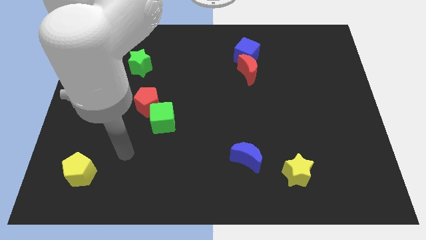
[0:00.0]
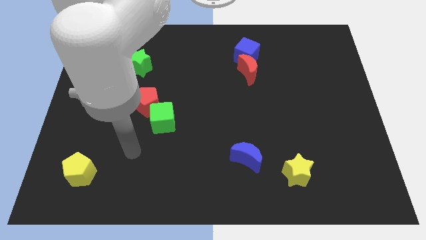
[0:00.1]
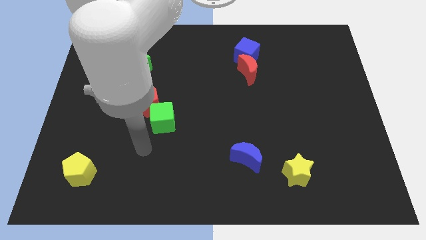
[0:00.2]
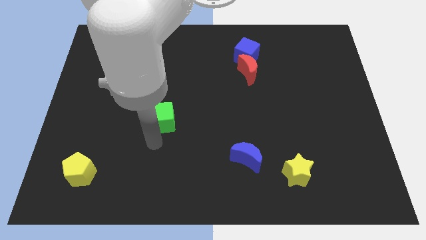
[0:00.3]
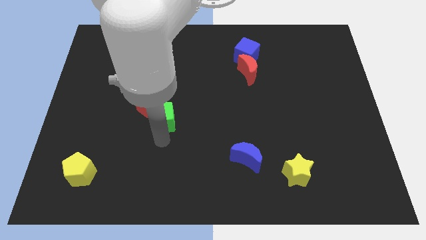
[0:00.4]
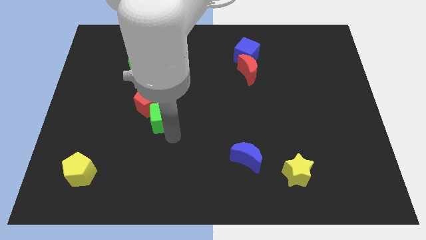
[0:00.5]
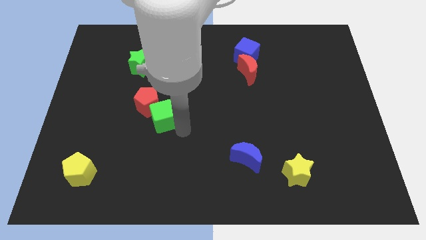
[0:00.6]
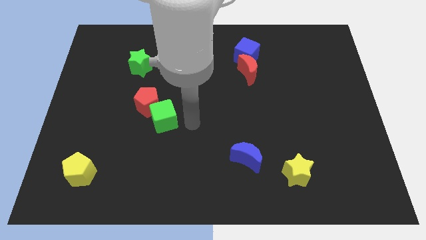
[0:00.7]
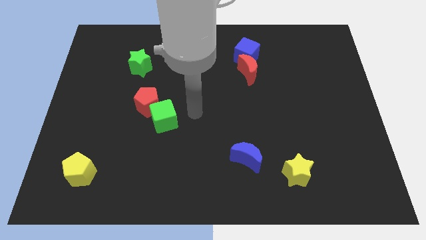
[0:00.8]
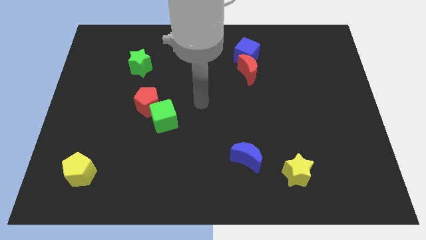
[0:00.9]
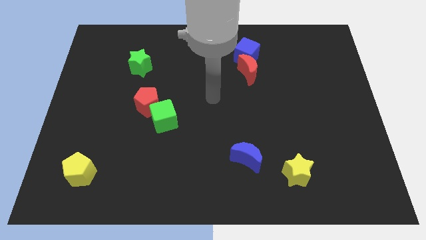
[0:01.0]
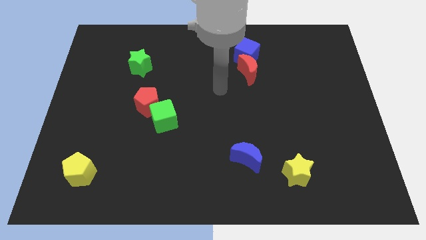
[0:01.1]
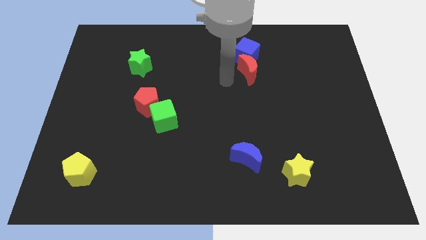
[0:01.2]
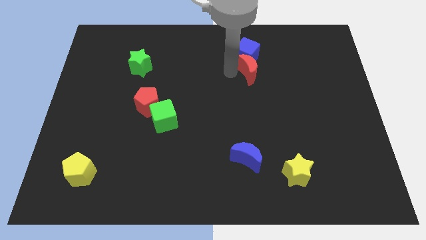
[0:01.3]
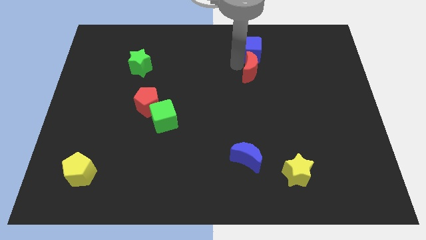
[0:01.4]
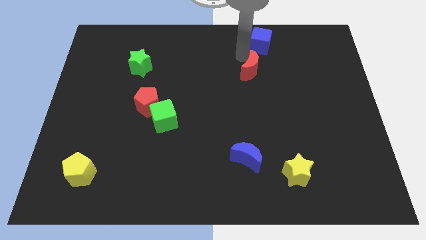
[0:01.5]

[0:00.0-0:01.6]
separate the red moon from the blue cube

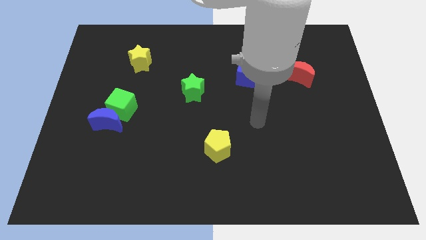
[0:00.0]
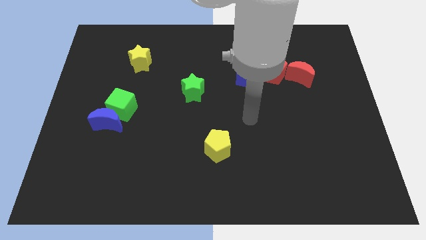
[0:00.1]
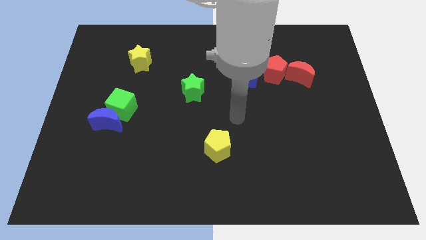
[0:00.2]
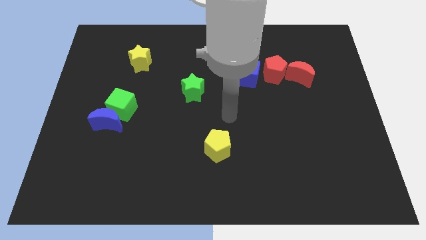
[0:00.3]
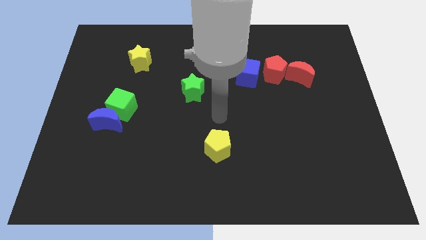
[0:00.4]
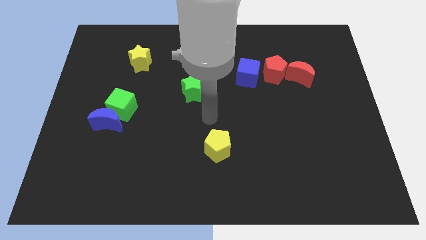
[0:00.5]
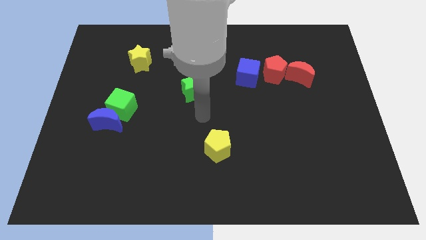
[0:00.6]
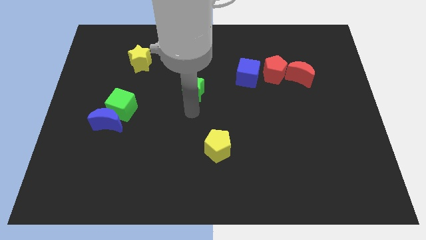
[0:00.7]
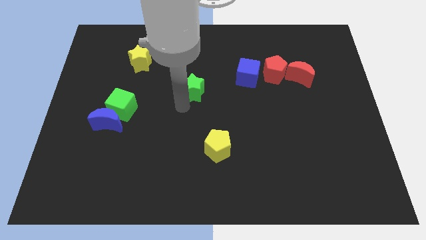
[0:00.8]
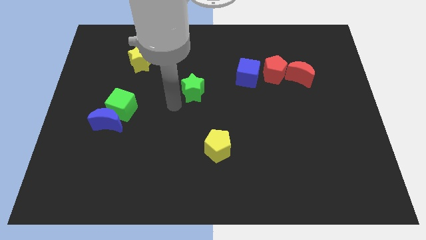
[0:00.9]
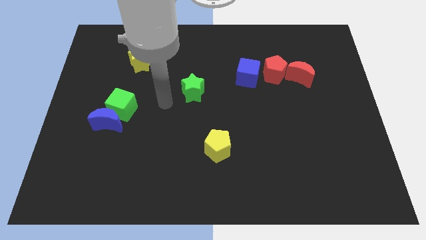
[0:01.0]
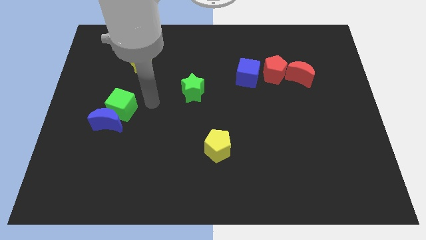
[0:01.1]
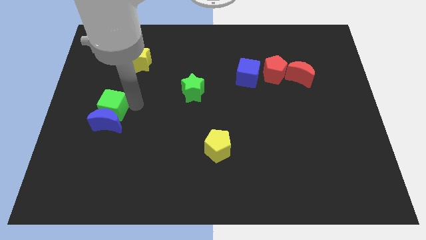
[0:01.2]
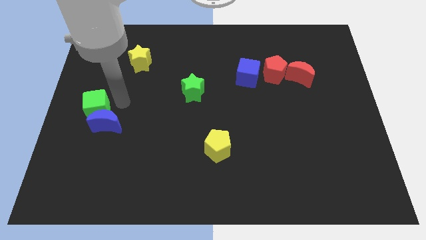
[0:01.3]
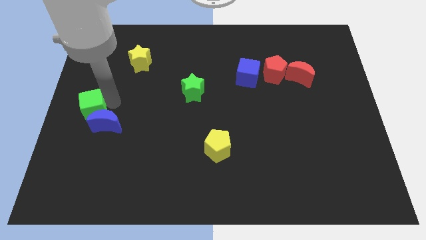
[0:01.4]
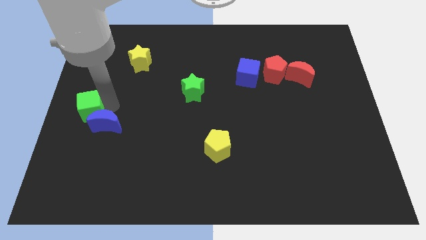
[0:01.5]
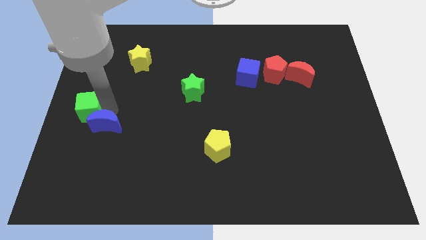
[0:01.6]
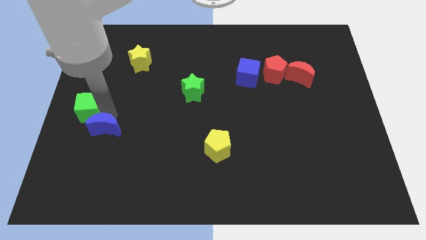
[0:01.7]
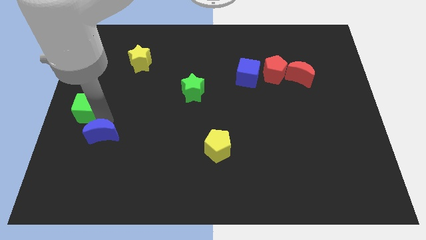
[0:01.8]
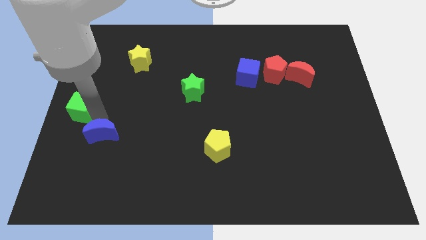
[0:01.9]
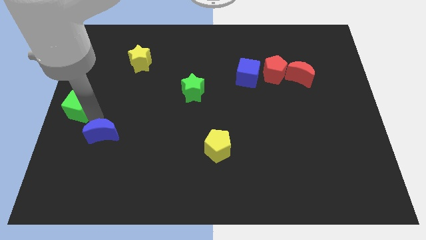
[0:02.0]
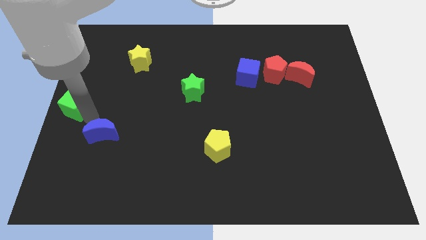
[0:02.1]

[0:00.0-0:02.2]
separate the blue moon from the green cube

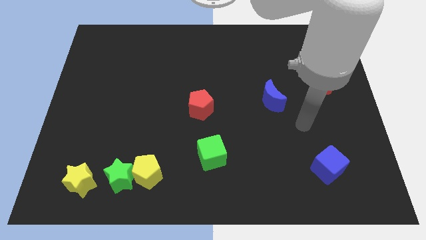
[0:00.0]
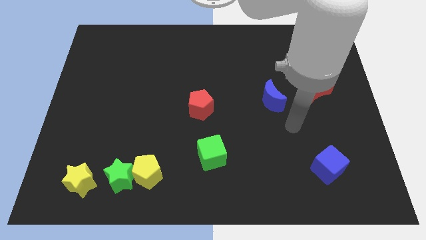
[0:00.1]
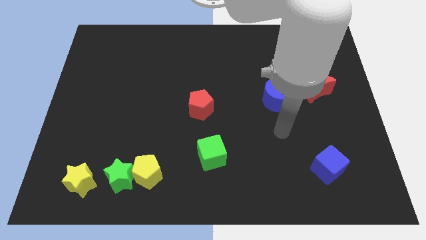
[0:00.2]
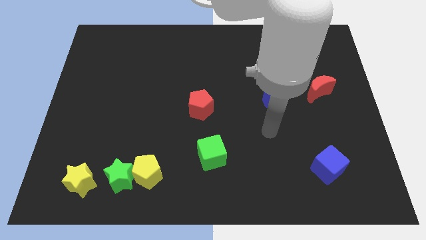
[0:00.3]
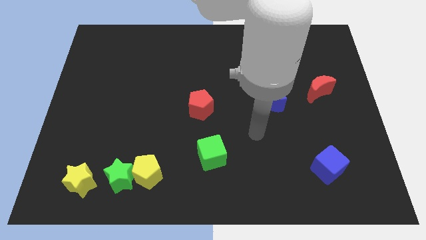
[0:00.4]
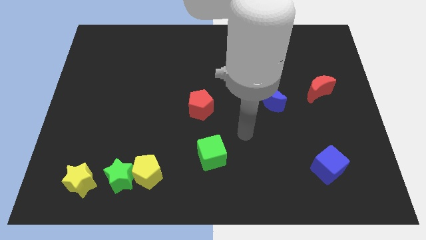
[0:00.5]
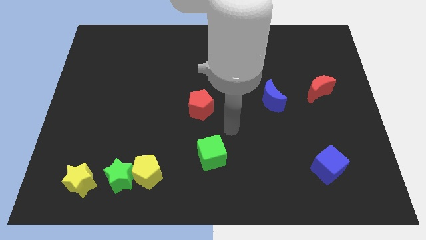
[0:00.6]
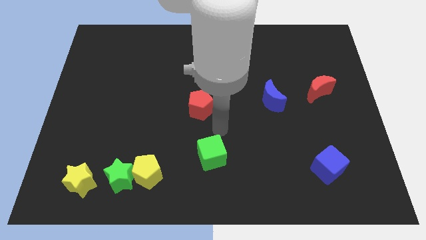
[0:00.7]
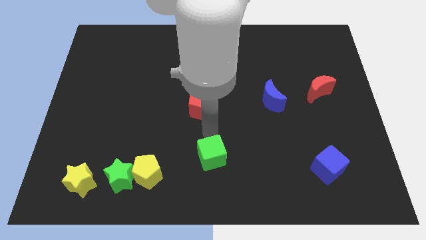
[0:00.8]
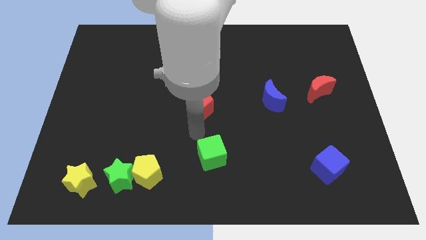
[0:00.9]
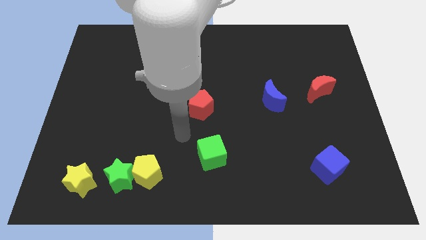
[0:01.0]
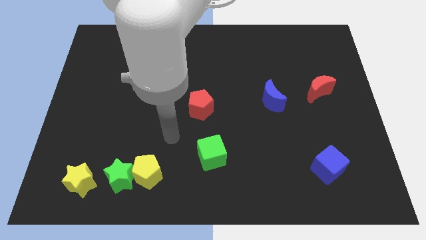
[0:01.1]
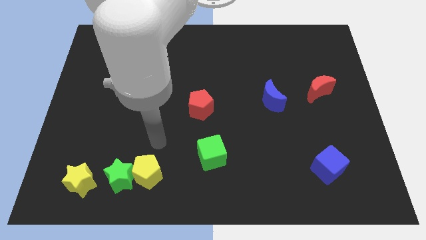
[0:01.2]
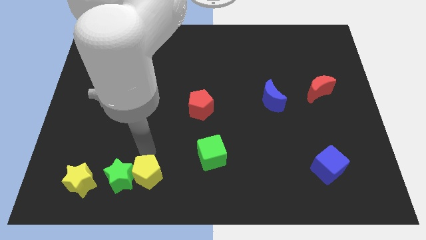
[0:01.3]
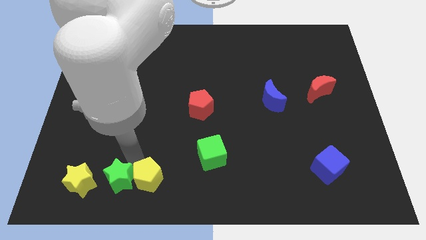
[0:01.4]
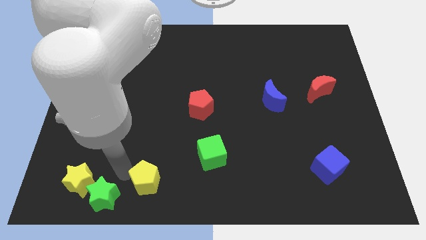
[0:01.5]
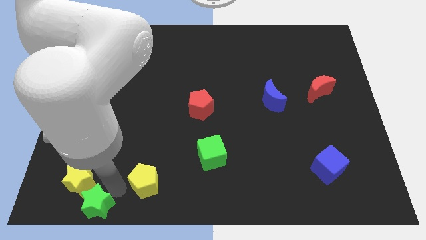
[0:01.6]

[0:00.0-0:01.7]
move the yellow pentagon away from the green star

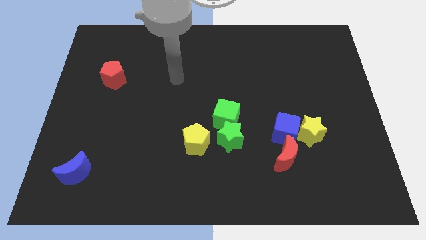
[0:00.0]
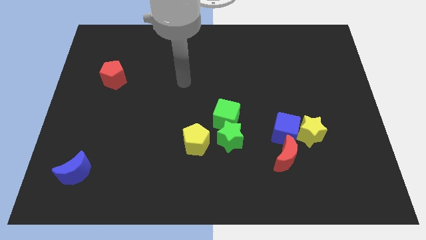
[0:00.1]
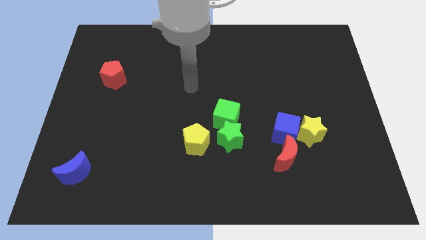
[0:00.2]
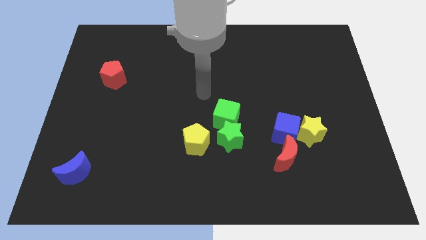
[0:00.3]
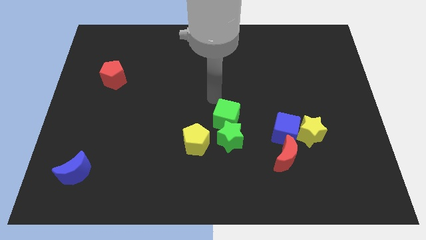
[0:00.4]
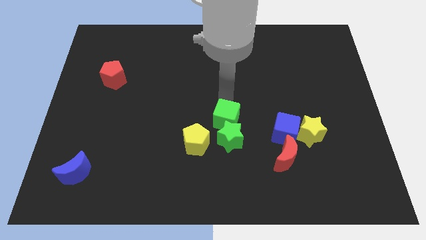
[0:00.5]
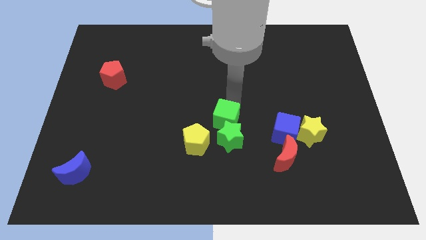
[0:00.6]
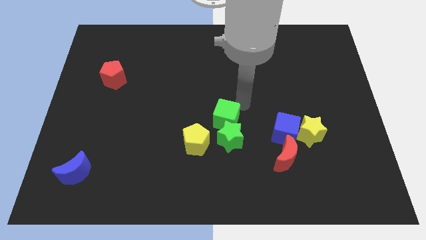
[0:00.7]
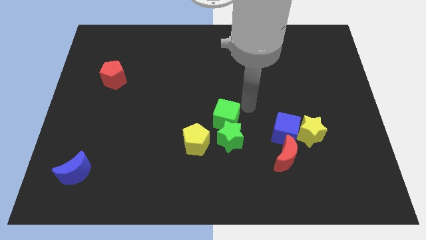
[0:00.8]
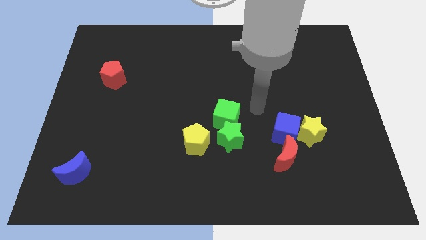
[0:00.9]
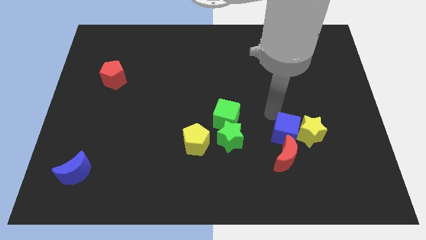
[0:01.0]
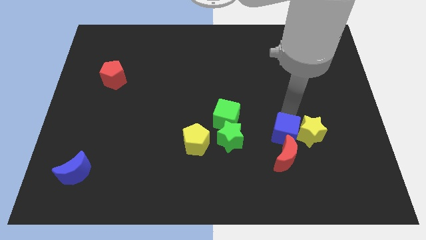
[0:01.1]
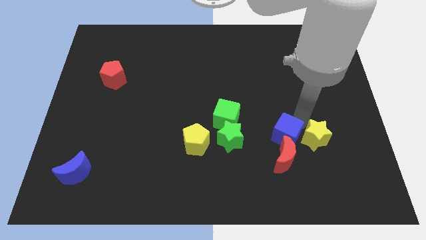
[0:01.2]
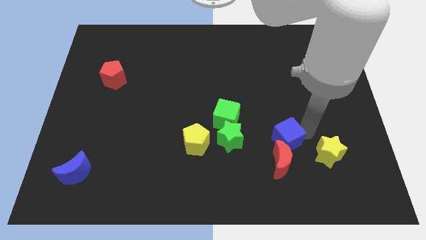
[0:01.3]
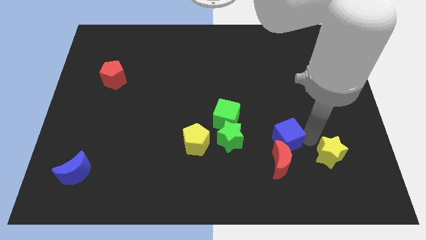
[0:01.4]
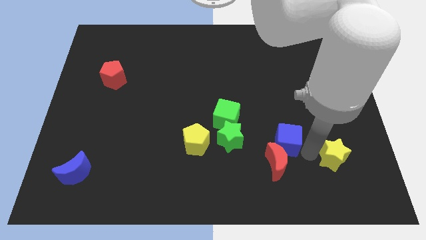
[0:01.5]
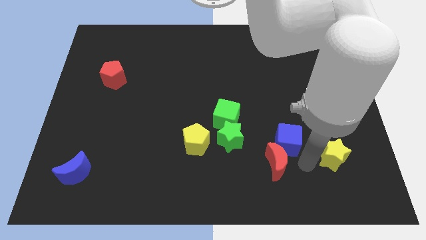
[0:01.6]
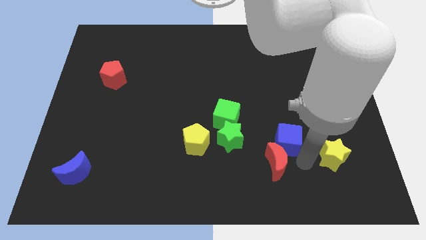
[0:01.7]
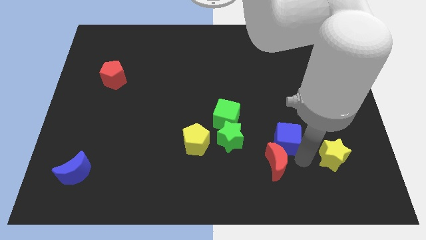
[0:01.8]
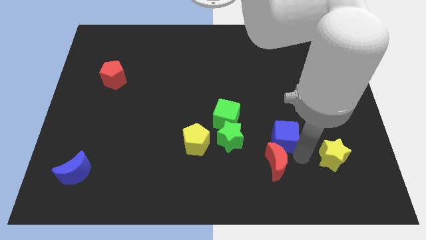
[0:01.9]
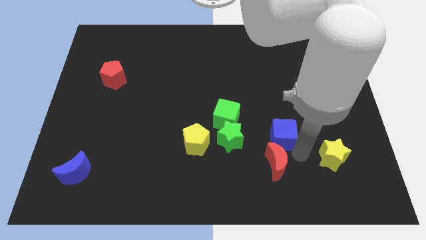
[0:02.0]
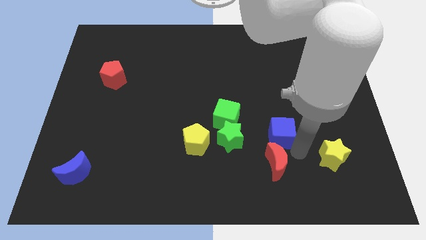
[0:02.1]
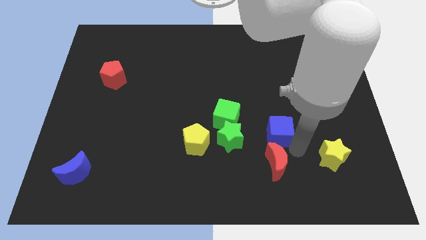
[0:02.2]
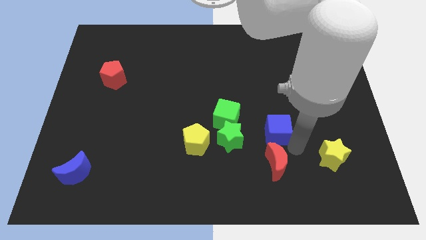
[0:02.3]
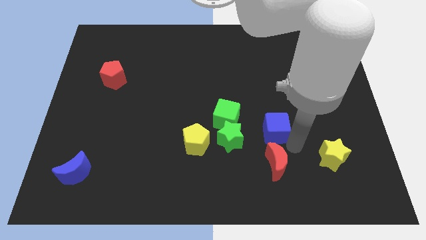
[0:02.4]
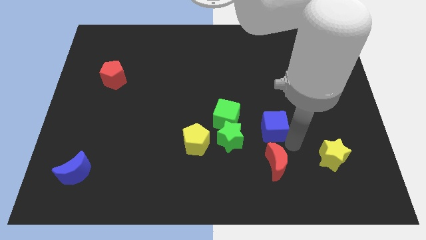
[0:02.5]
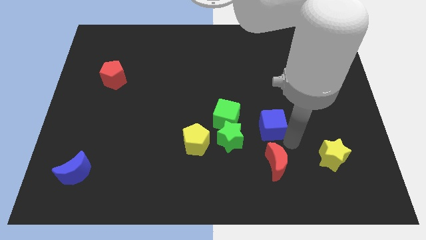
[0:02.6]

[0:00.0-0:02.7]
pull the blue cube apart from the yellow star and red moon

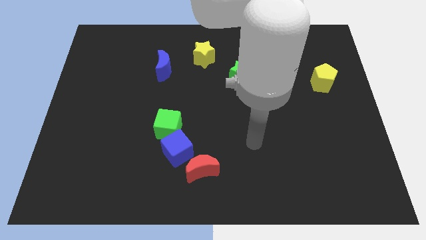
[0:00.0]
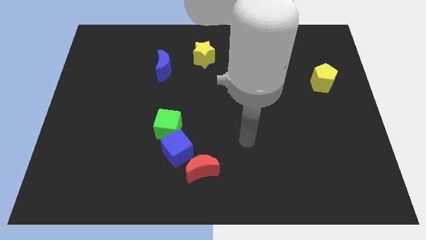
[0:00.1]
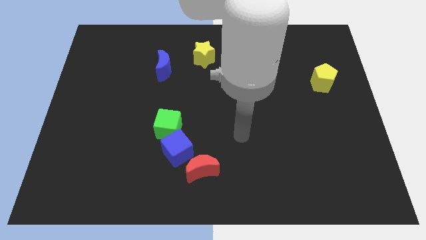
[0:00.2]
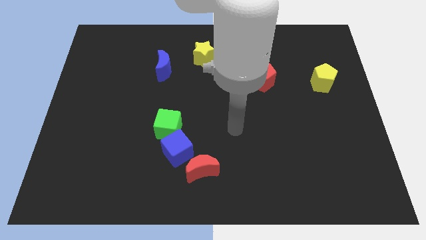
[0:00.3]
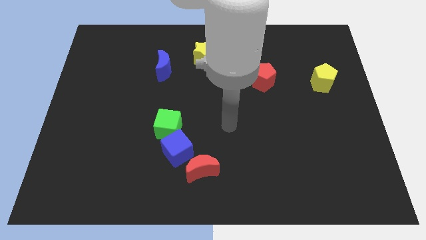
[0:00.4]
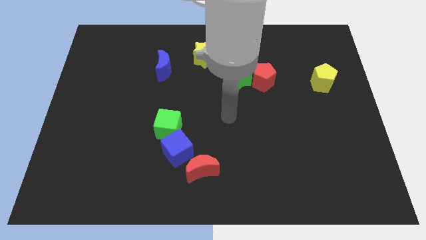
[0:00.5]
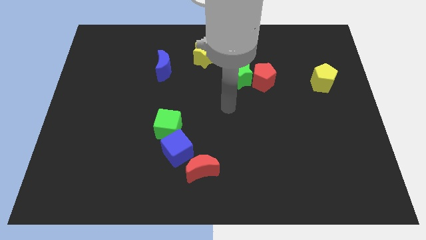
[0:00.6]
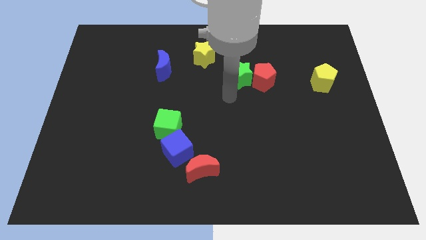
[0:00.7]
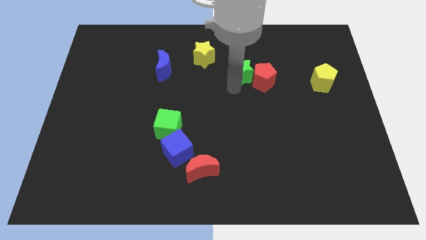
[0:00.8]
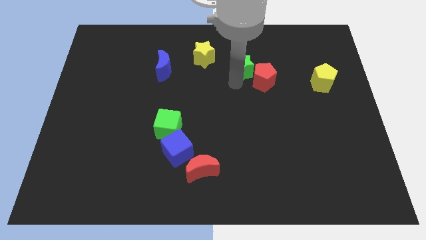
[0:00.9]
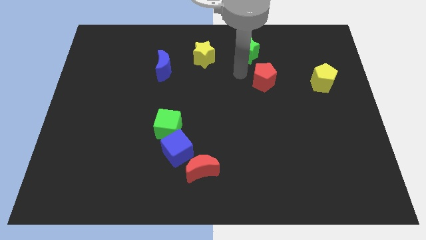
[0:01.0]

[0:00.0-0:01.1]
move the red pentagon away from the green star
